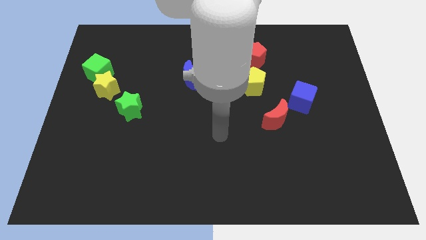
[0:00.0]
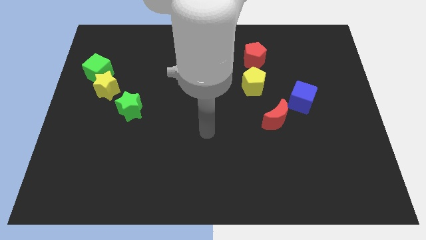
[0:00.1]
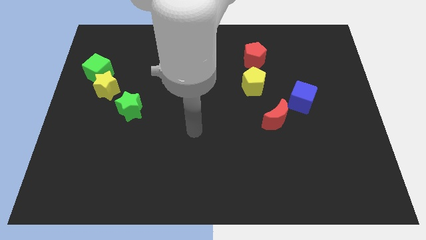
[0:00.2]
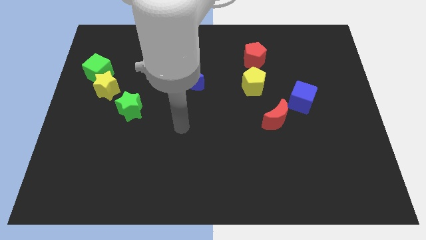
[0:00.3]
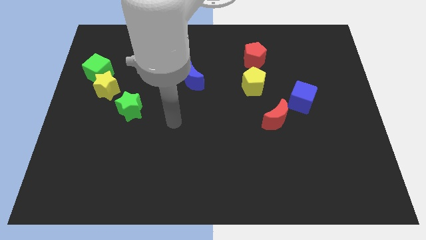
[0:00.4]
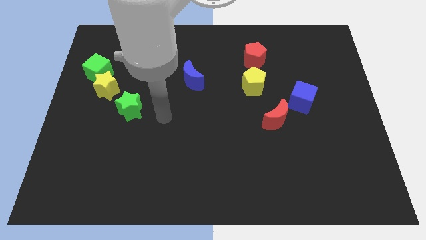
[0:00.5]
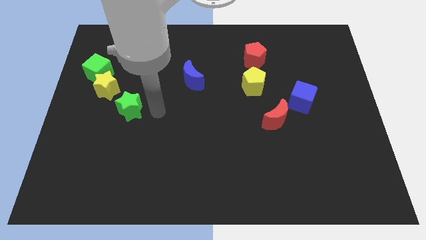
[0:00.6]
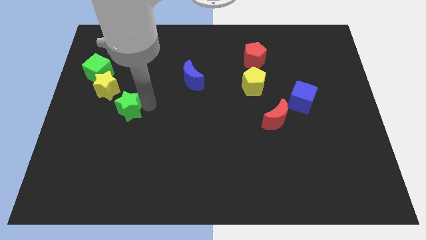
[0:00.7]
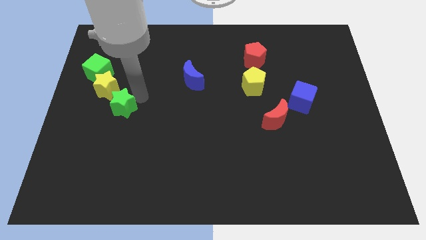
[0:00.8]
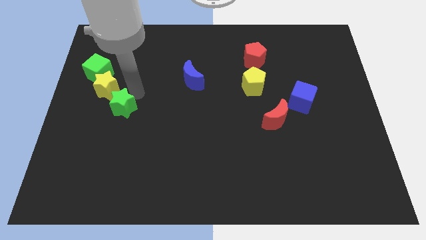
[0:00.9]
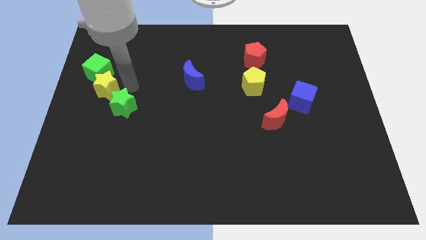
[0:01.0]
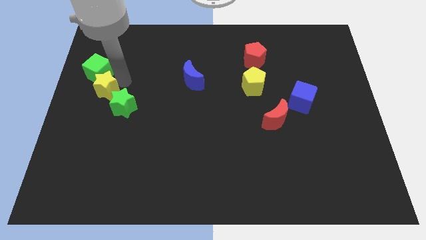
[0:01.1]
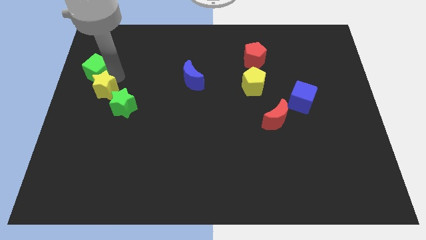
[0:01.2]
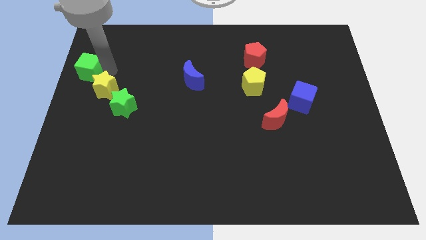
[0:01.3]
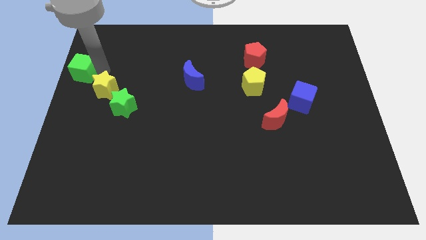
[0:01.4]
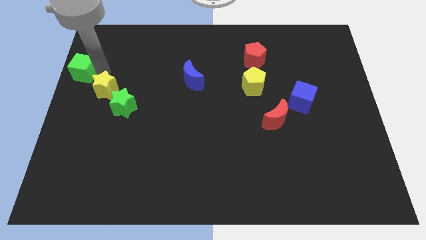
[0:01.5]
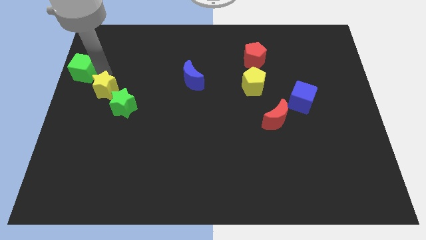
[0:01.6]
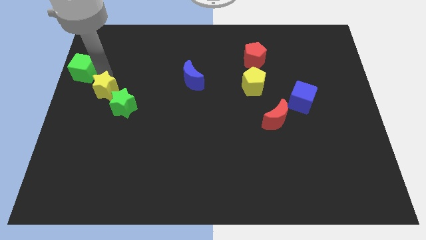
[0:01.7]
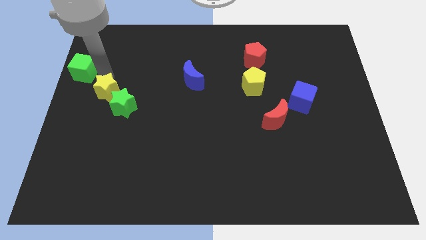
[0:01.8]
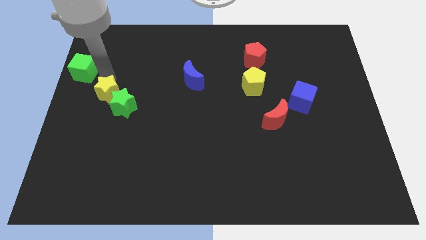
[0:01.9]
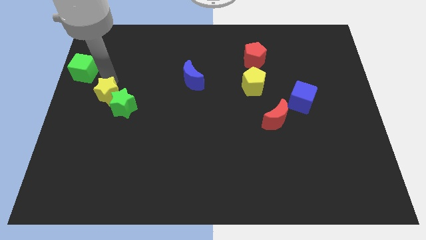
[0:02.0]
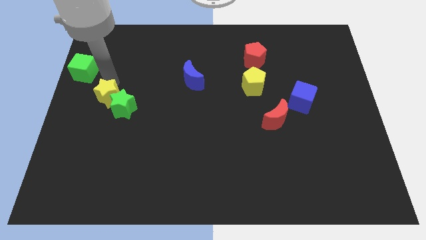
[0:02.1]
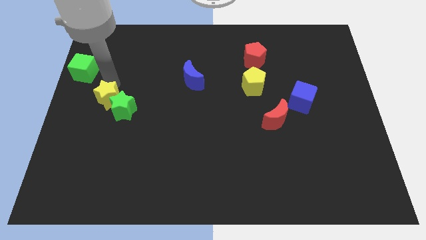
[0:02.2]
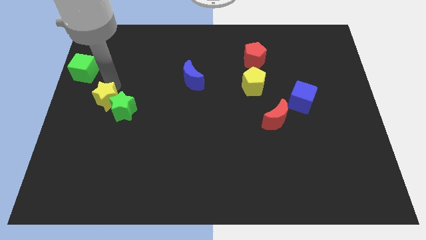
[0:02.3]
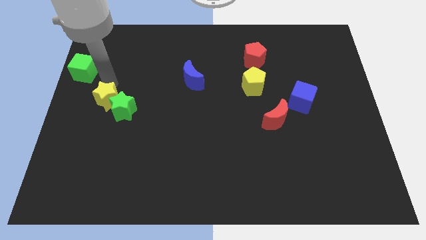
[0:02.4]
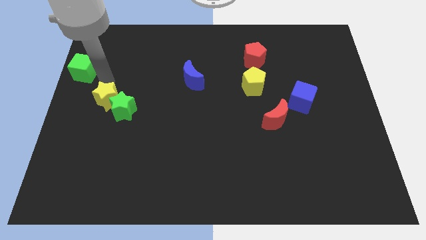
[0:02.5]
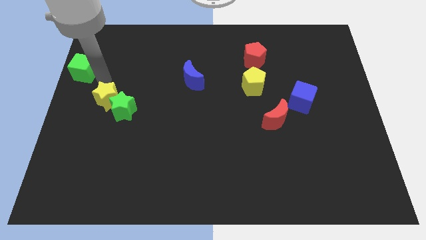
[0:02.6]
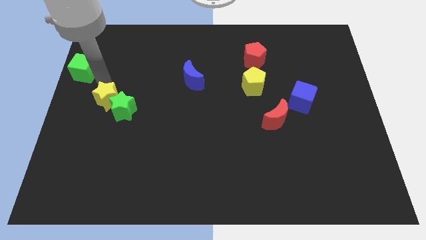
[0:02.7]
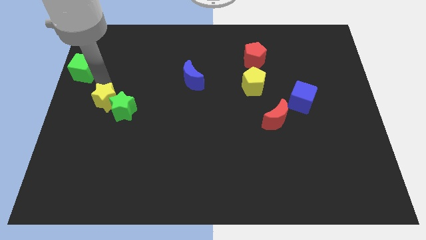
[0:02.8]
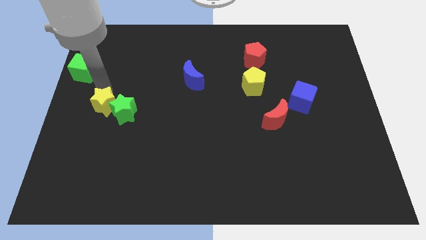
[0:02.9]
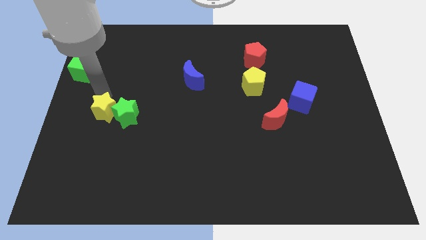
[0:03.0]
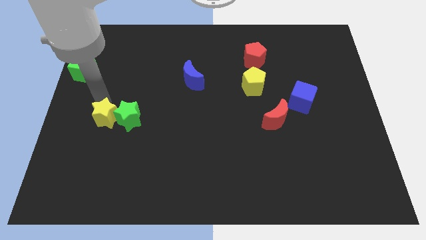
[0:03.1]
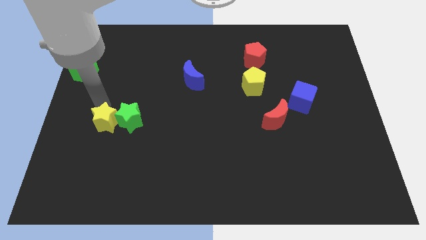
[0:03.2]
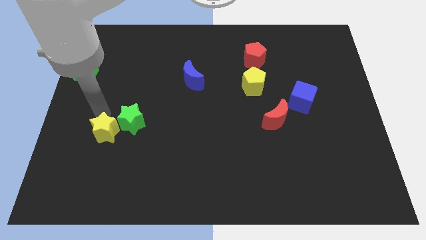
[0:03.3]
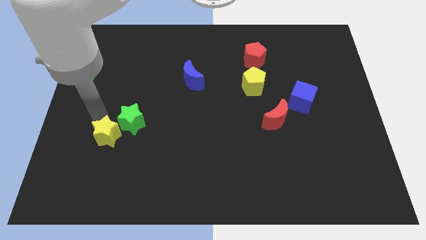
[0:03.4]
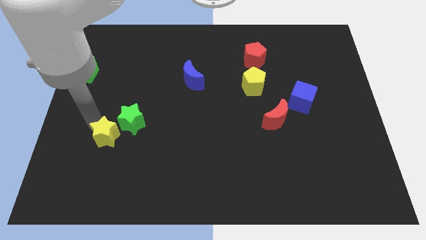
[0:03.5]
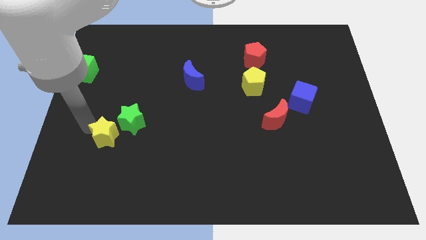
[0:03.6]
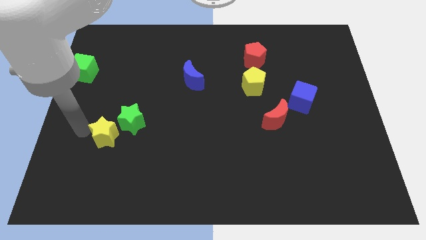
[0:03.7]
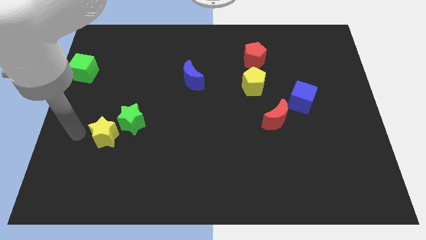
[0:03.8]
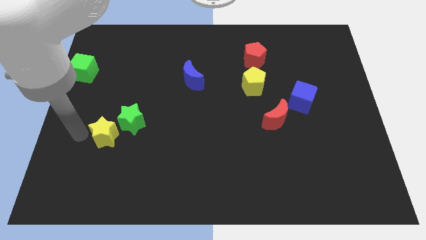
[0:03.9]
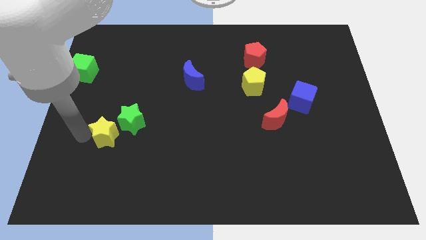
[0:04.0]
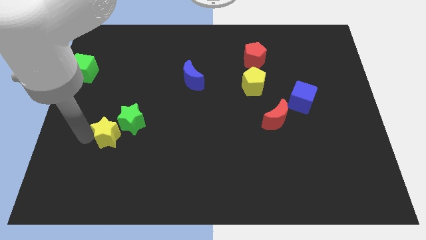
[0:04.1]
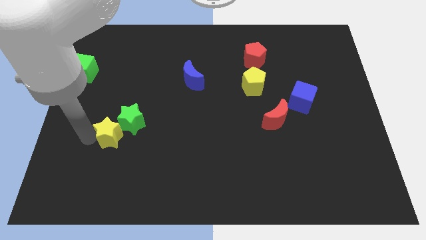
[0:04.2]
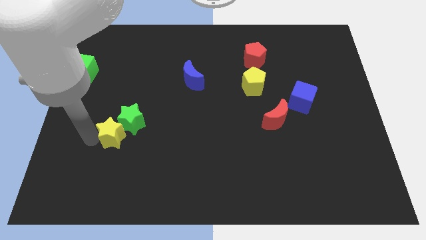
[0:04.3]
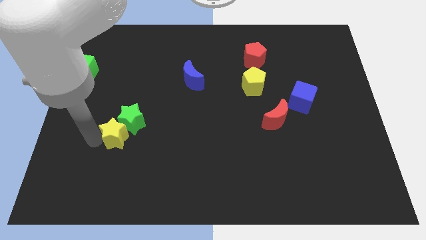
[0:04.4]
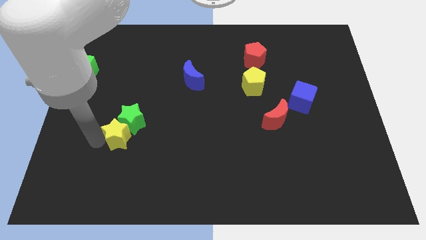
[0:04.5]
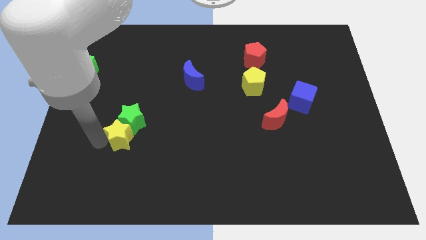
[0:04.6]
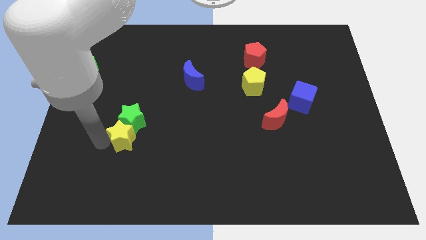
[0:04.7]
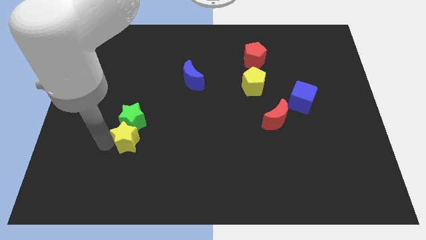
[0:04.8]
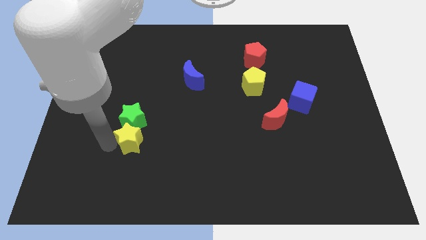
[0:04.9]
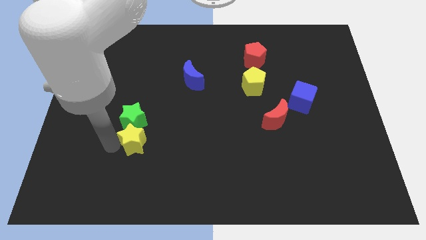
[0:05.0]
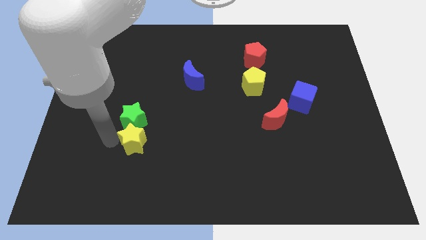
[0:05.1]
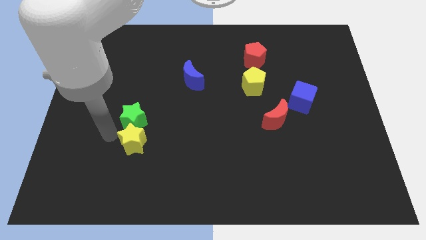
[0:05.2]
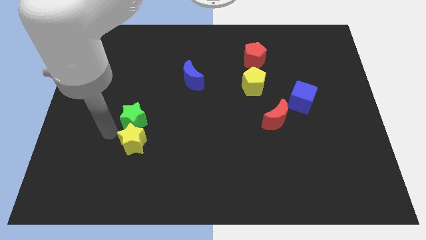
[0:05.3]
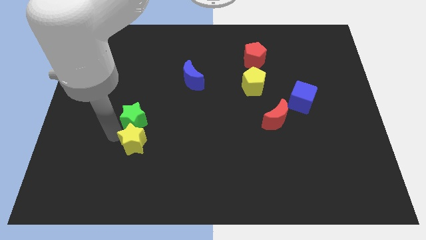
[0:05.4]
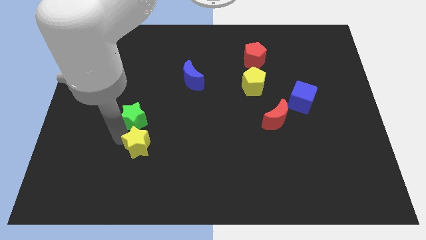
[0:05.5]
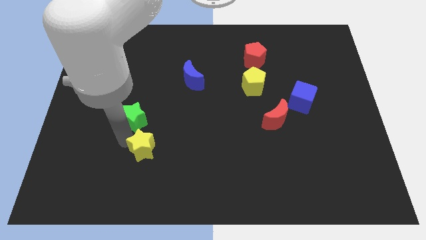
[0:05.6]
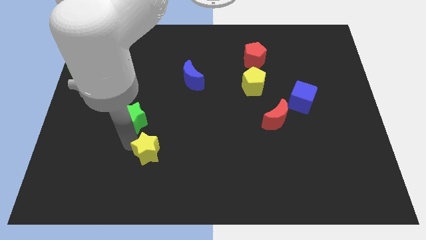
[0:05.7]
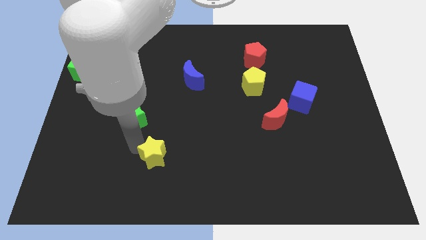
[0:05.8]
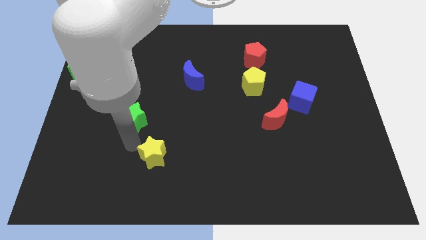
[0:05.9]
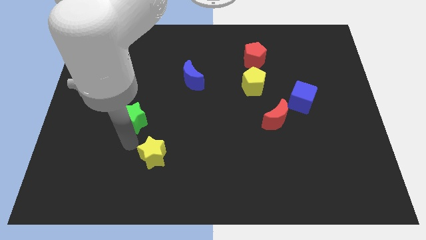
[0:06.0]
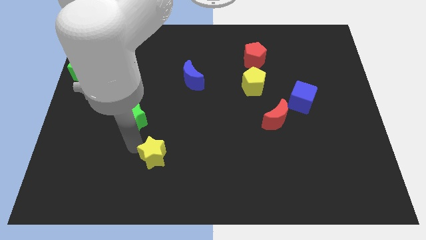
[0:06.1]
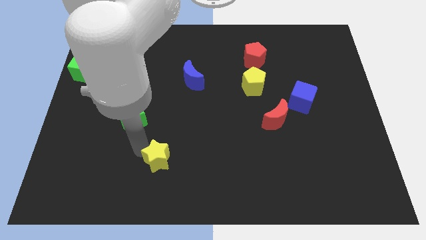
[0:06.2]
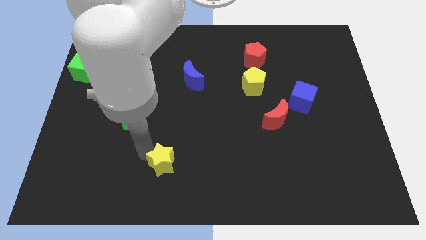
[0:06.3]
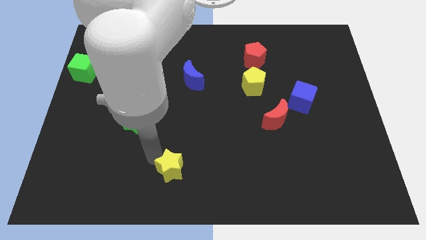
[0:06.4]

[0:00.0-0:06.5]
put the yellow star to the bottom

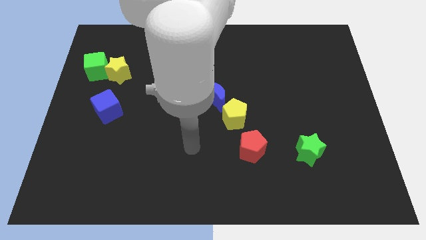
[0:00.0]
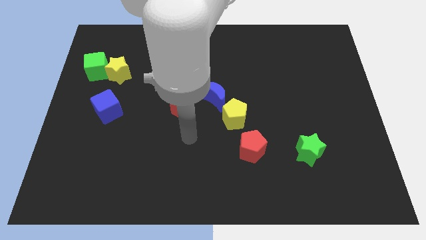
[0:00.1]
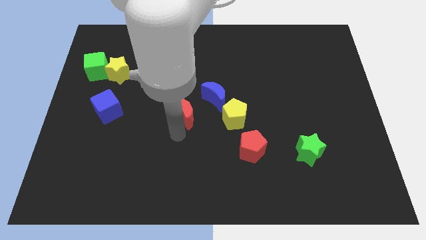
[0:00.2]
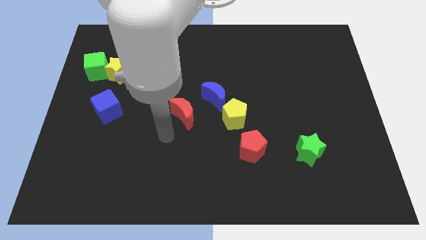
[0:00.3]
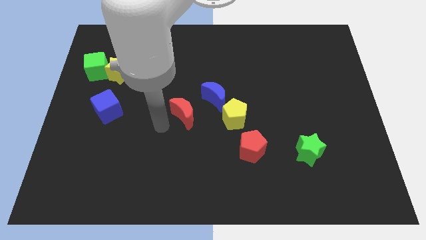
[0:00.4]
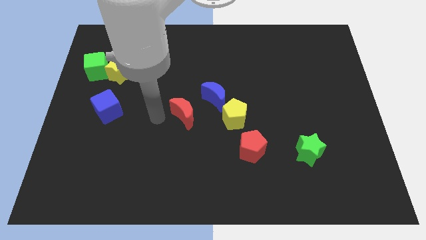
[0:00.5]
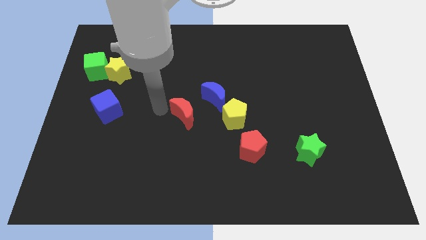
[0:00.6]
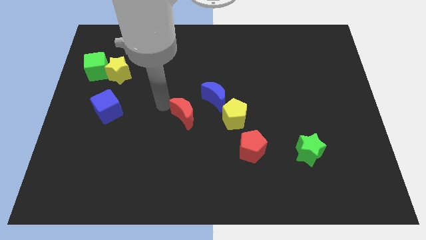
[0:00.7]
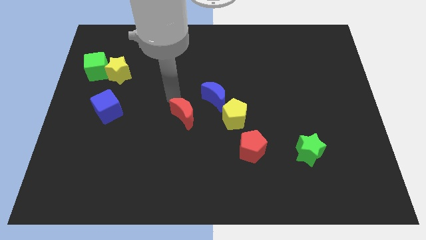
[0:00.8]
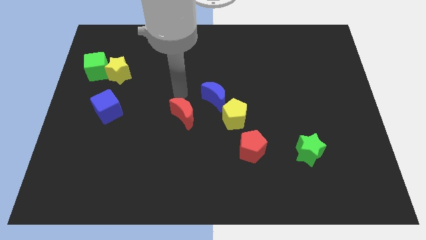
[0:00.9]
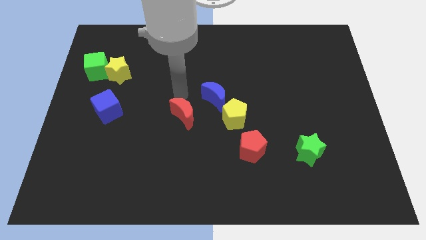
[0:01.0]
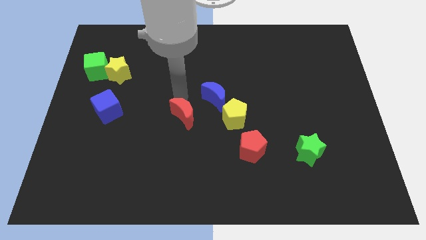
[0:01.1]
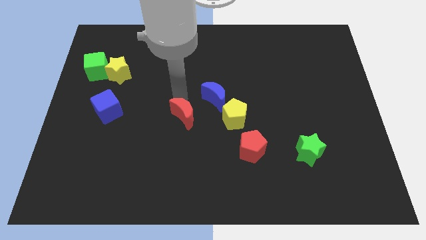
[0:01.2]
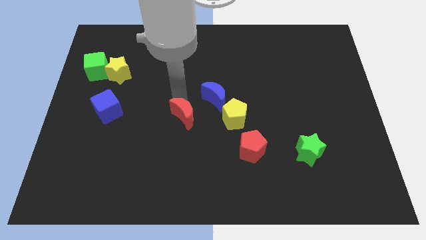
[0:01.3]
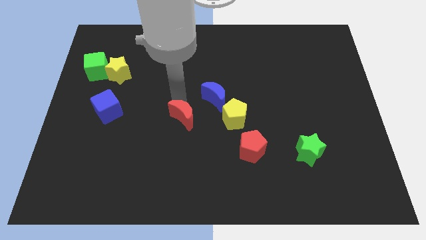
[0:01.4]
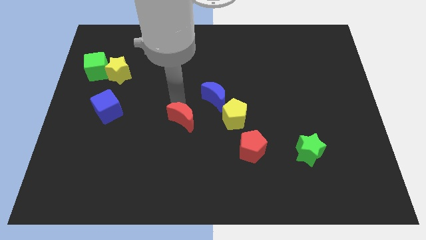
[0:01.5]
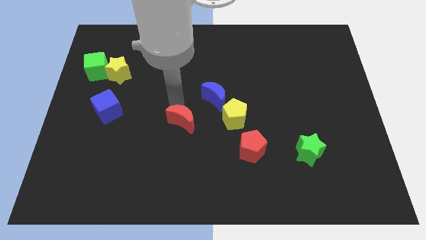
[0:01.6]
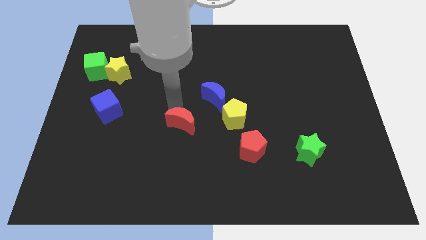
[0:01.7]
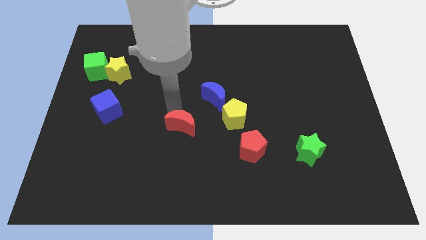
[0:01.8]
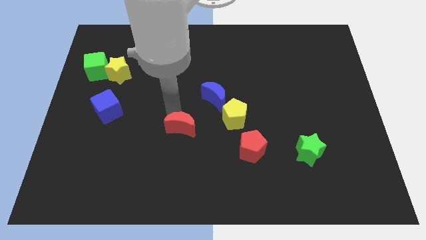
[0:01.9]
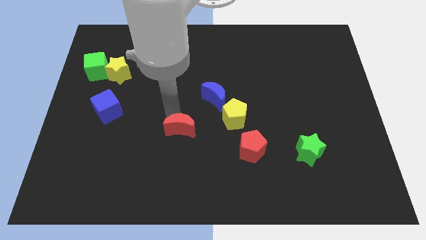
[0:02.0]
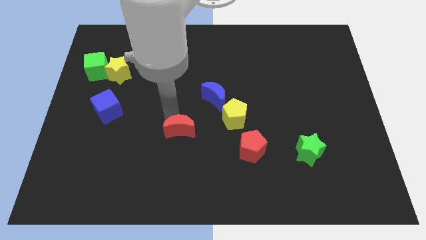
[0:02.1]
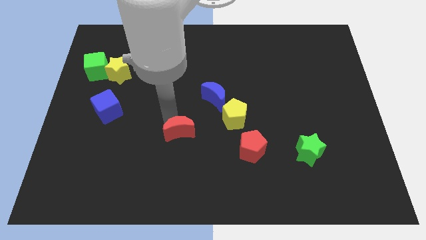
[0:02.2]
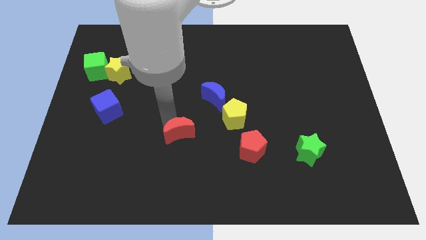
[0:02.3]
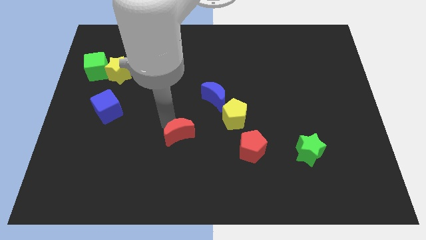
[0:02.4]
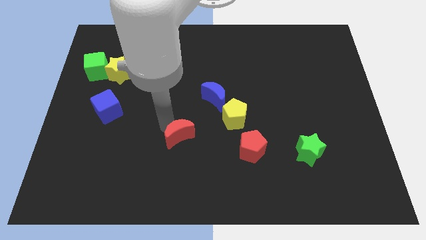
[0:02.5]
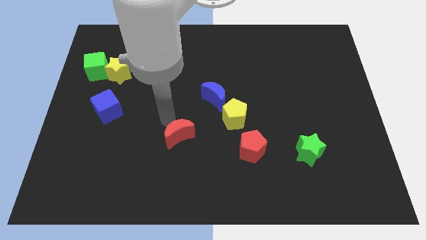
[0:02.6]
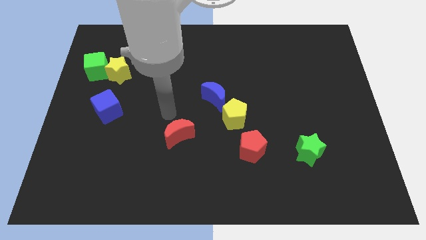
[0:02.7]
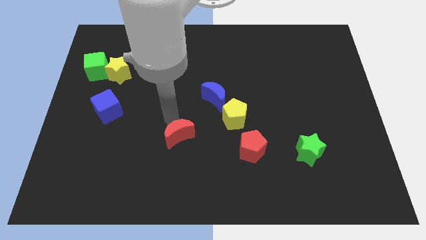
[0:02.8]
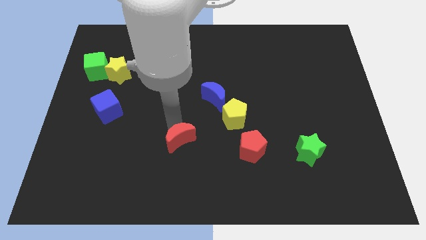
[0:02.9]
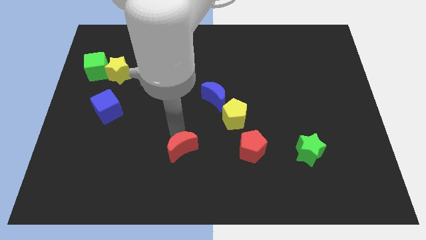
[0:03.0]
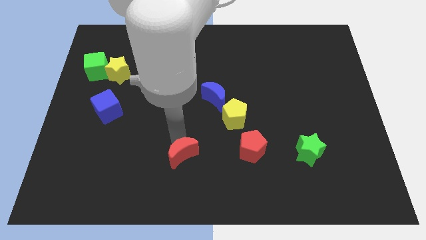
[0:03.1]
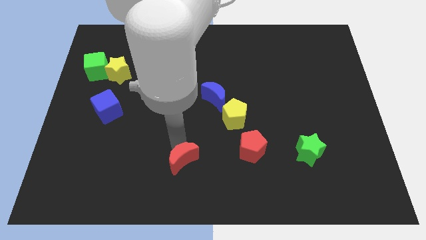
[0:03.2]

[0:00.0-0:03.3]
push the red moon to the bottom
